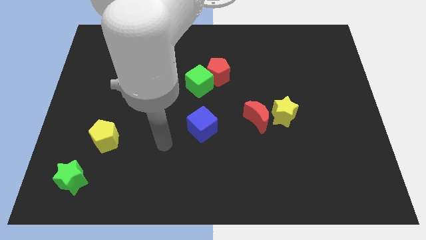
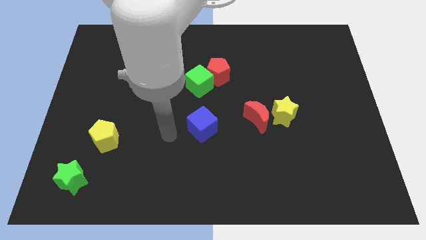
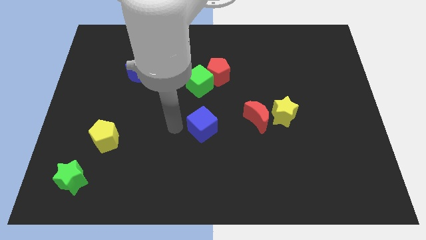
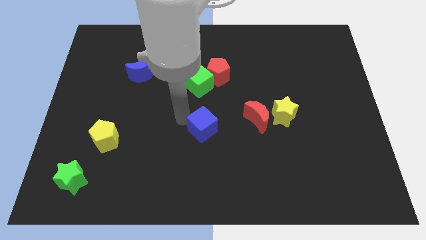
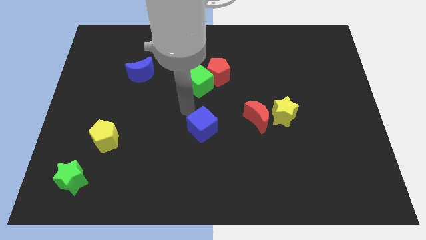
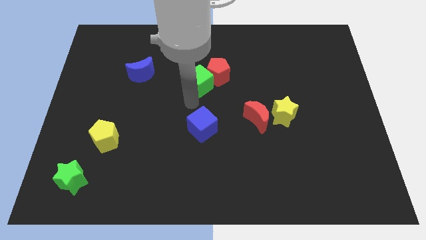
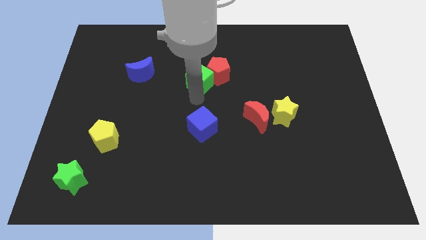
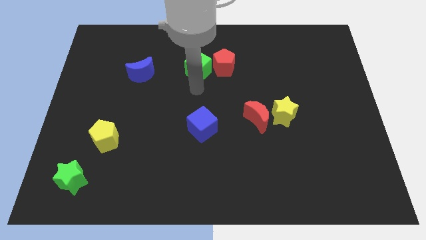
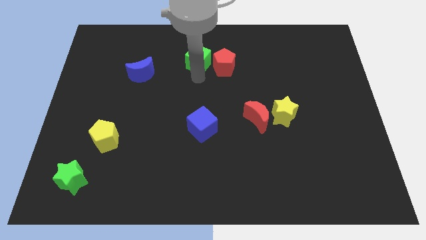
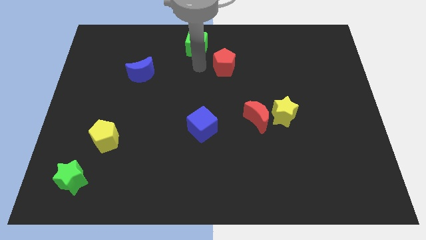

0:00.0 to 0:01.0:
pull the red pentagon apart from the green cube

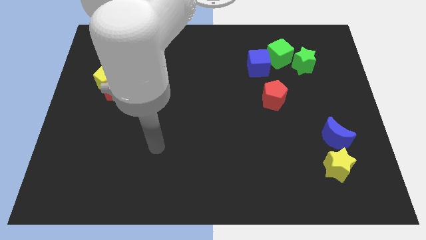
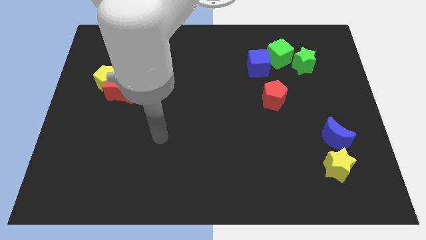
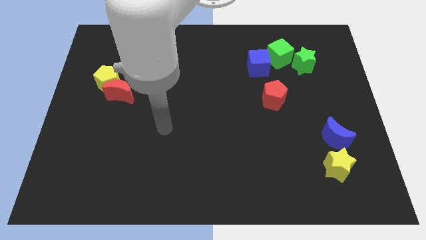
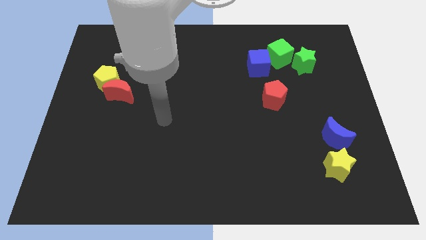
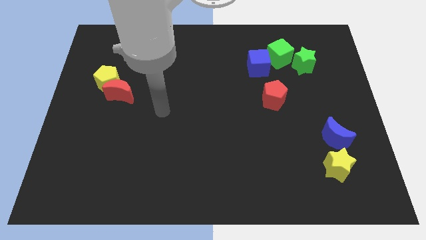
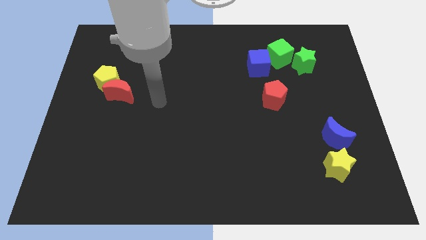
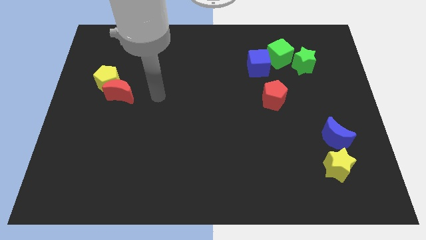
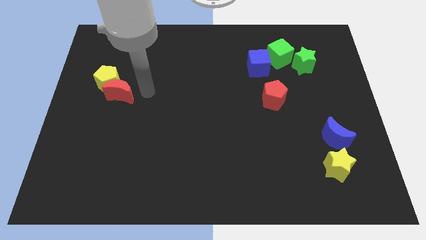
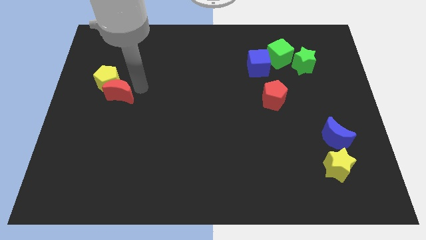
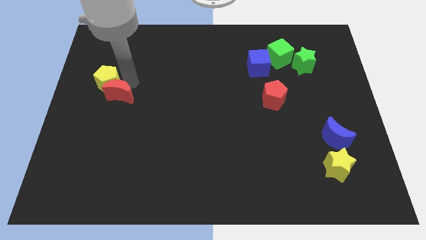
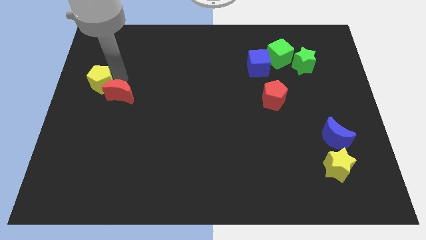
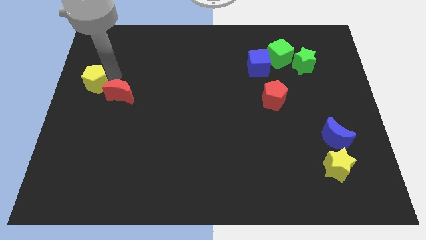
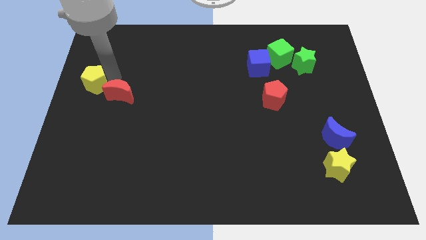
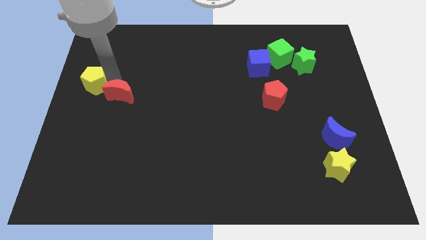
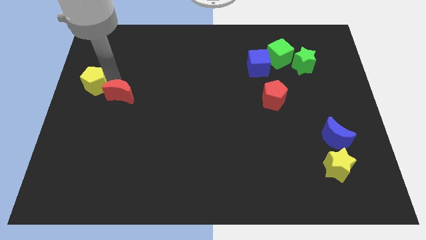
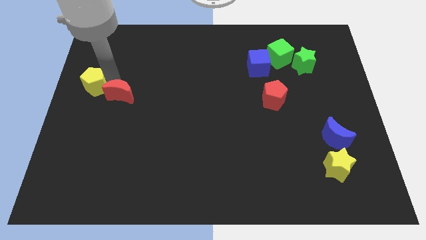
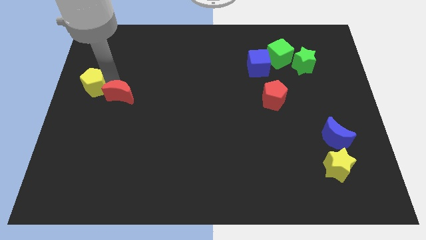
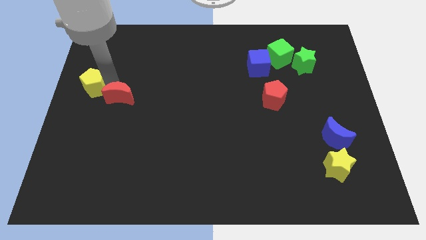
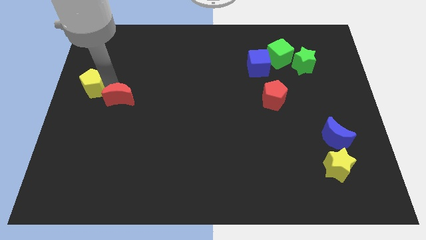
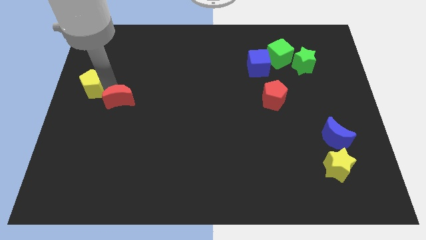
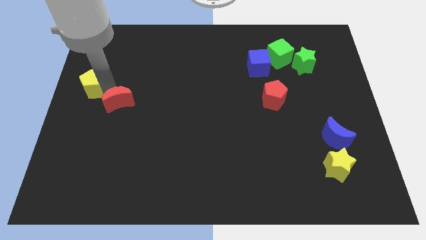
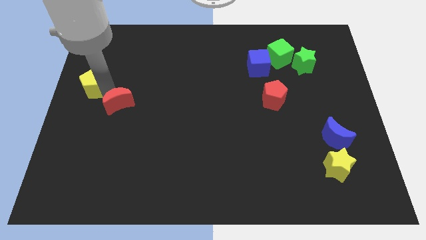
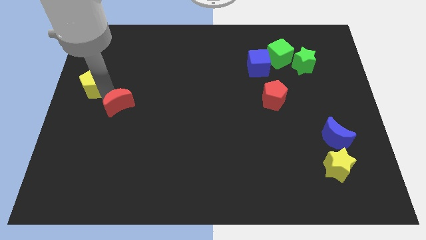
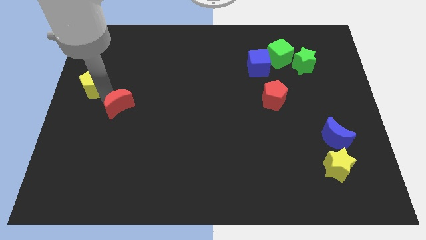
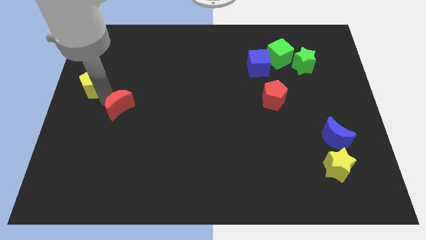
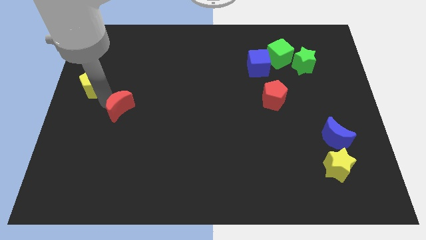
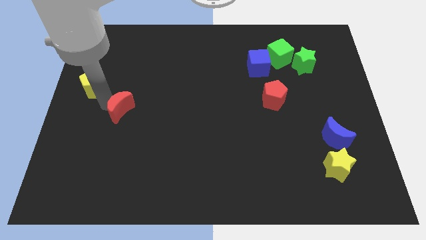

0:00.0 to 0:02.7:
pull the red moon apart from the yellow pentagon

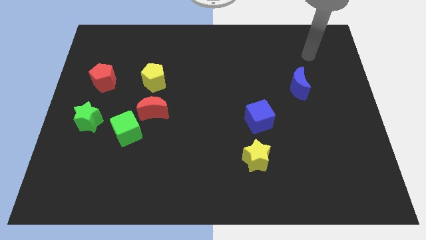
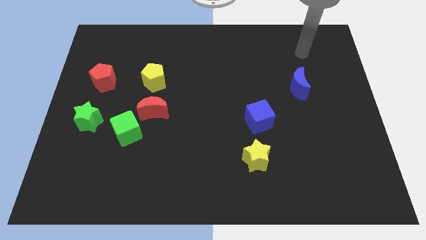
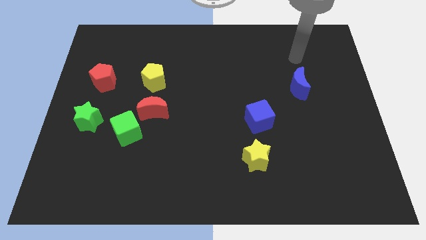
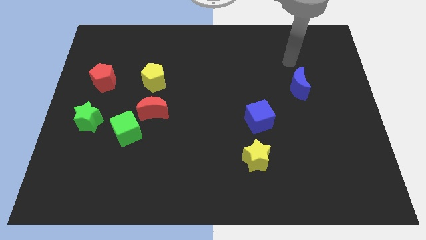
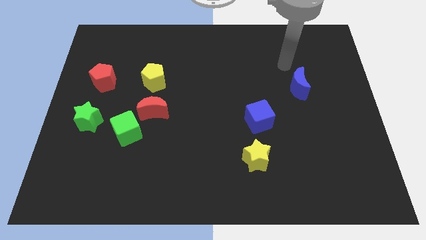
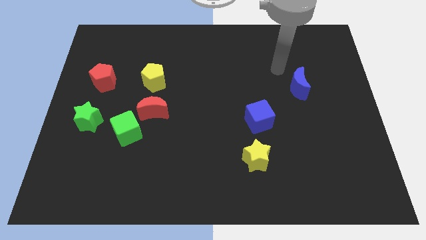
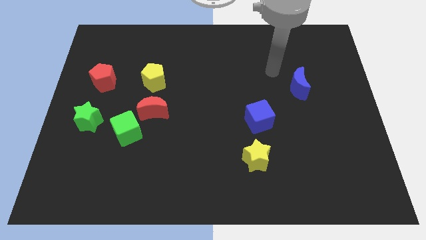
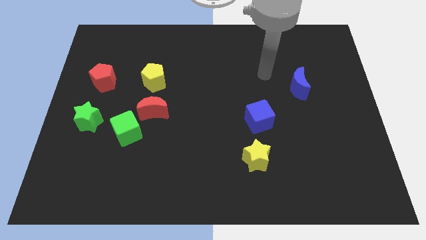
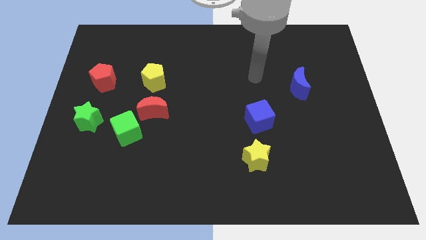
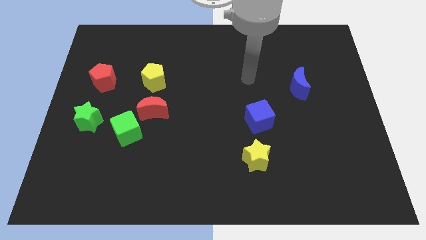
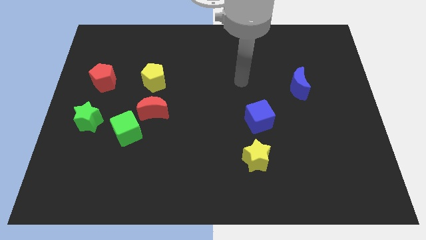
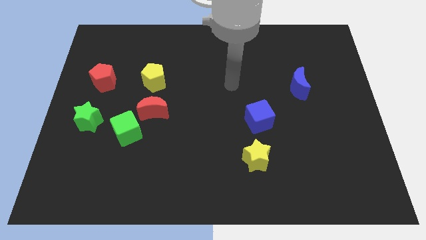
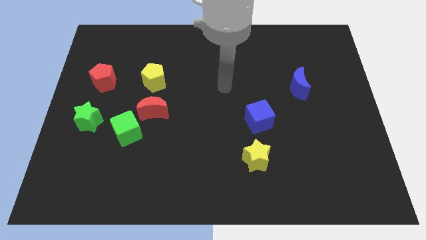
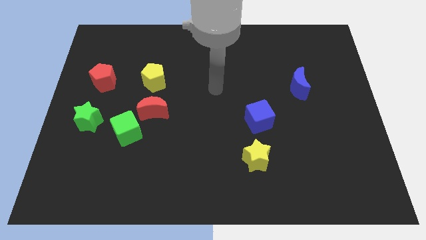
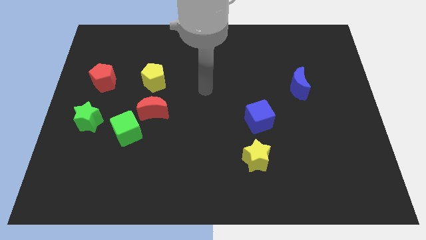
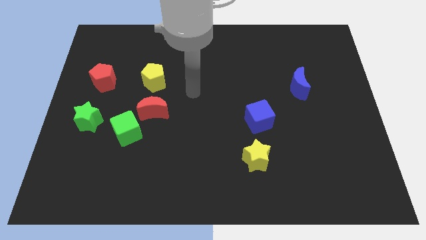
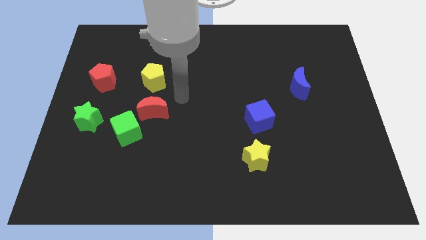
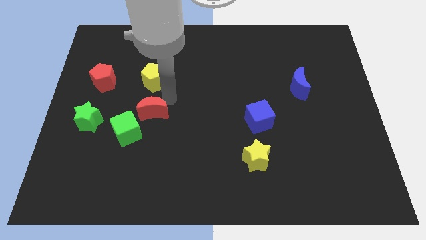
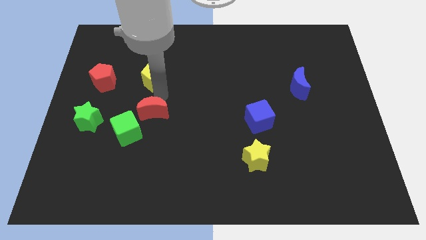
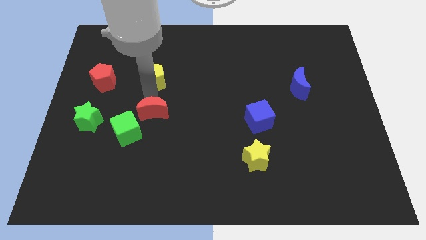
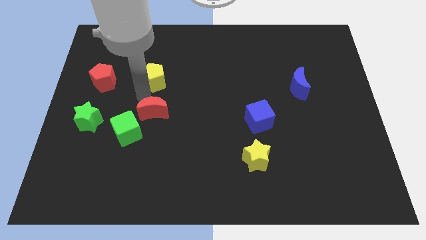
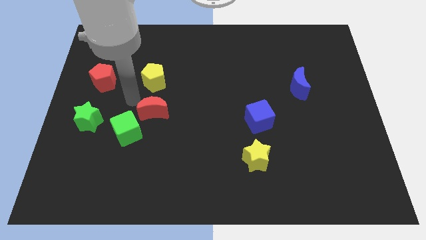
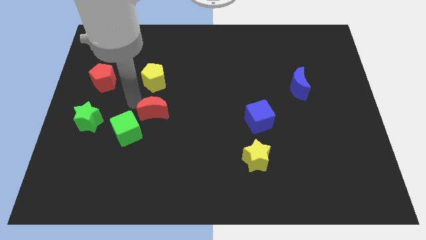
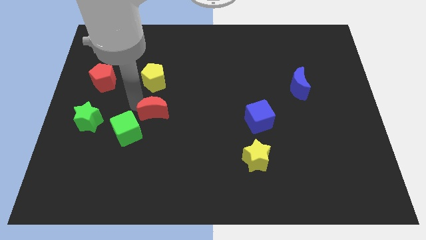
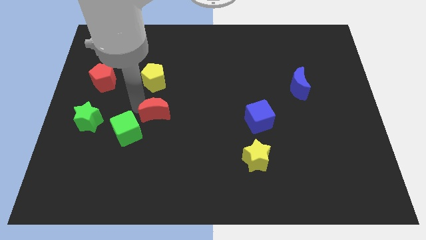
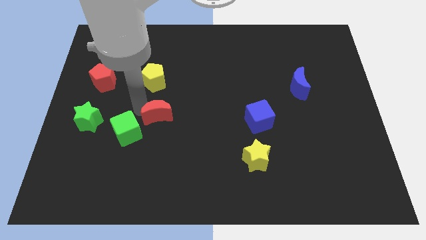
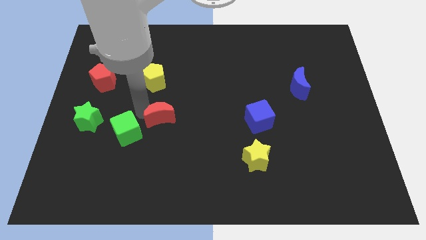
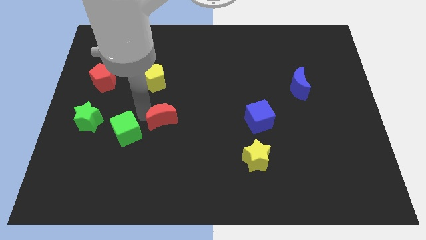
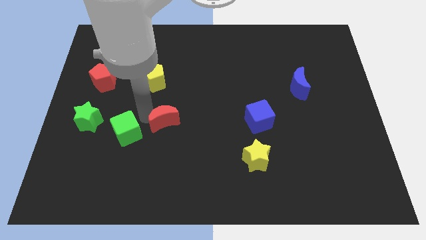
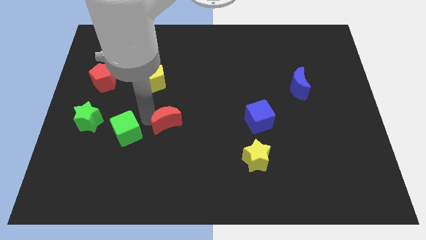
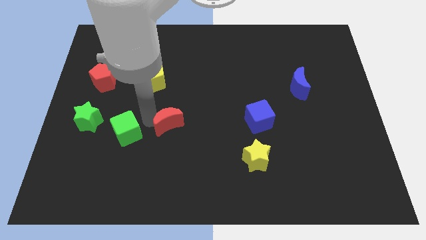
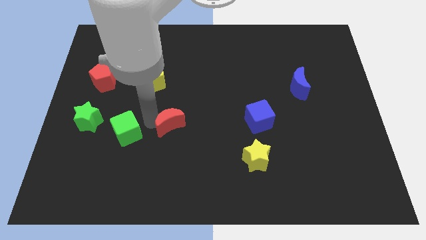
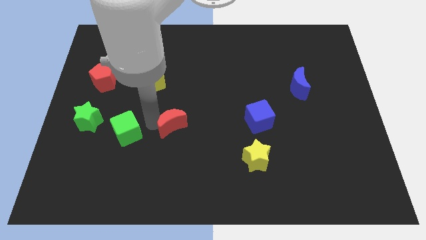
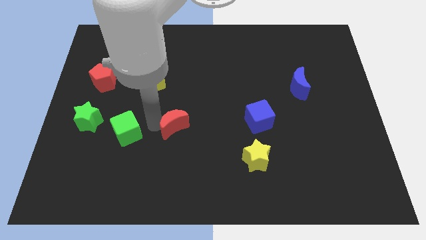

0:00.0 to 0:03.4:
move the red moon away from the green cube and yellow pentagon

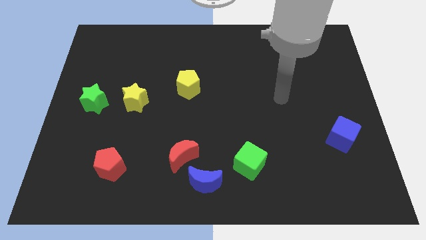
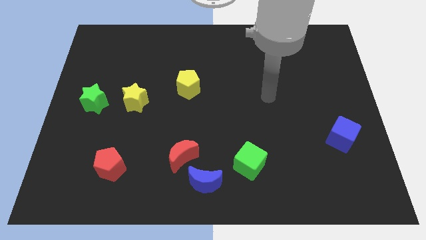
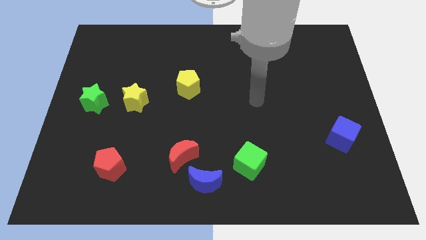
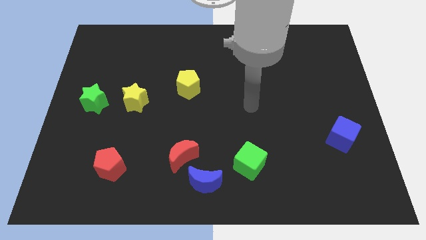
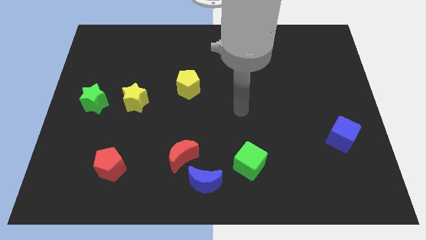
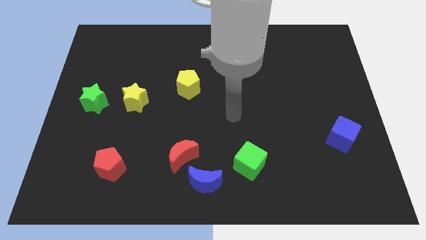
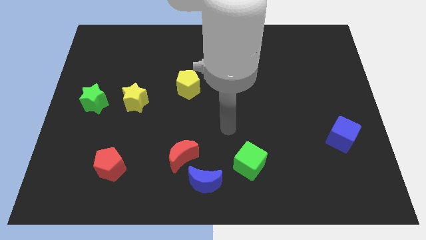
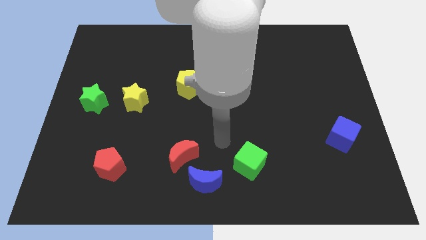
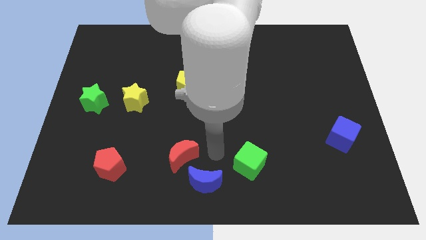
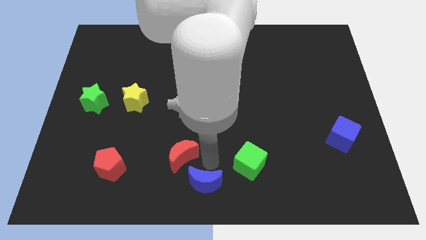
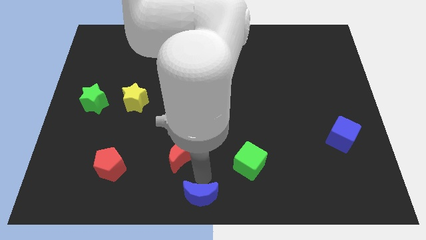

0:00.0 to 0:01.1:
pull the red moon apart from the blue moon

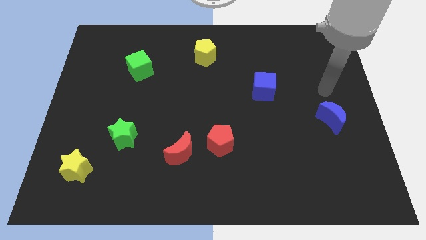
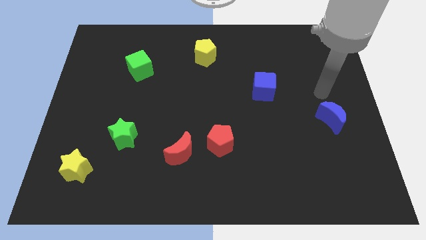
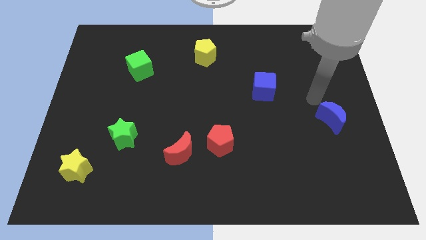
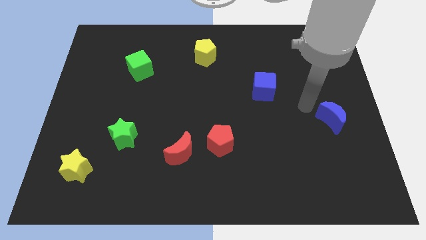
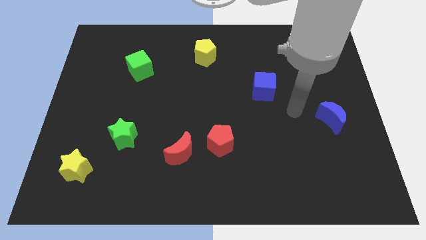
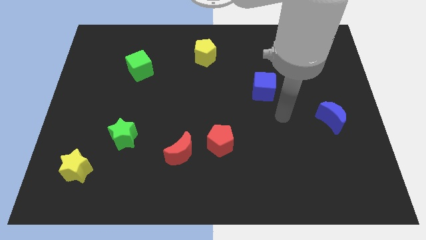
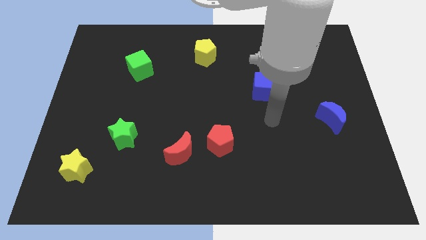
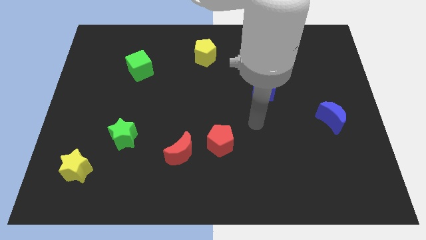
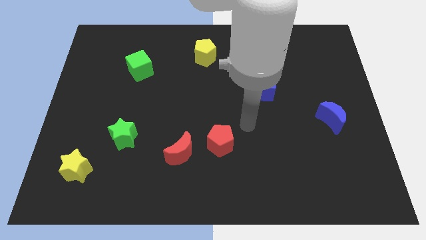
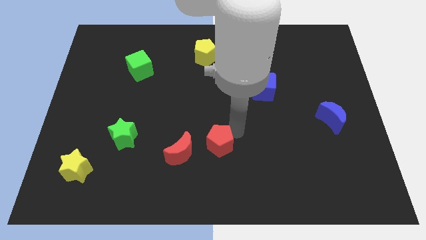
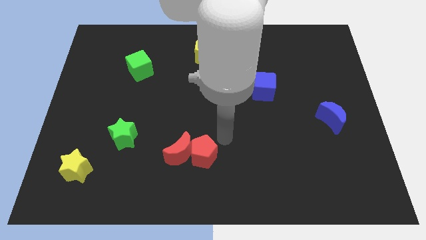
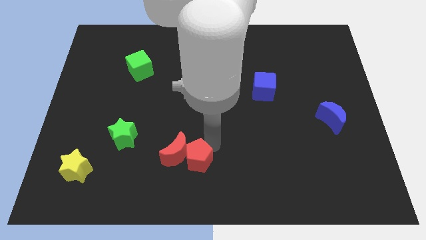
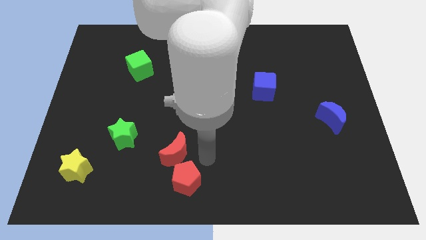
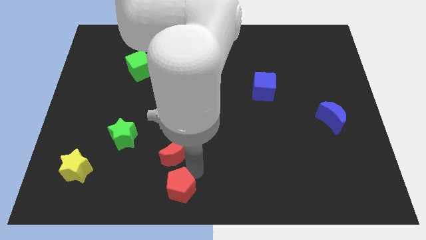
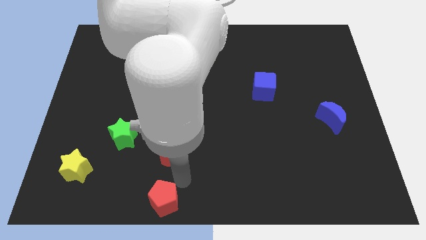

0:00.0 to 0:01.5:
separate the red moon from the red pentagon
